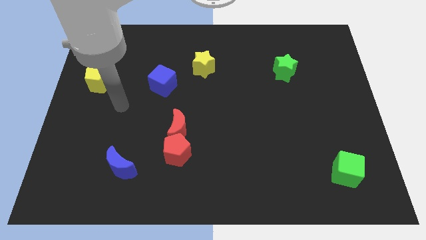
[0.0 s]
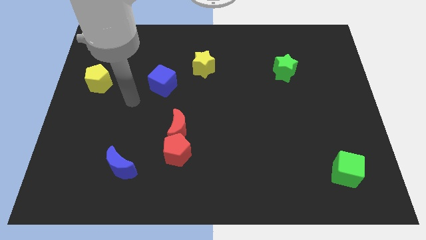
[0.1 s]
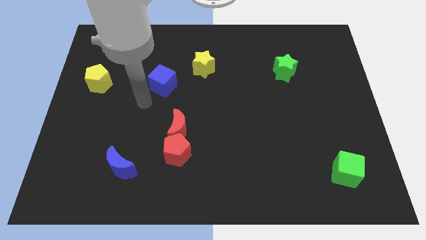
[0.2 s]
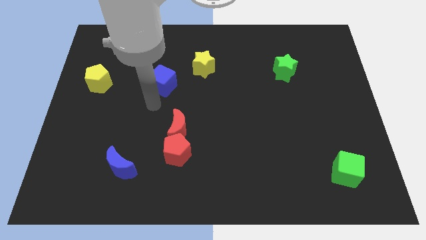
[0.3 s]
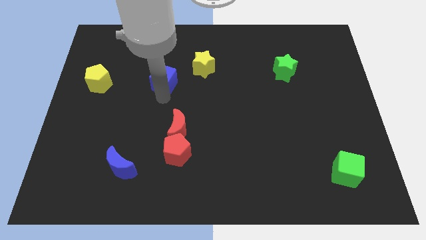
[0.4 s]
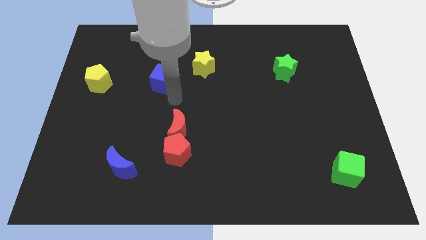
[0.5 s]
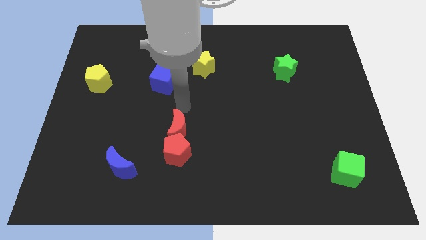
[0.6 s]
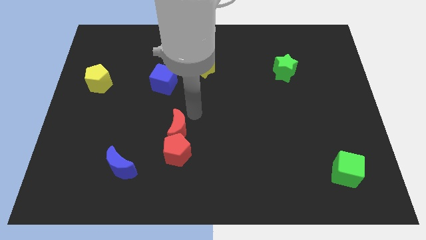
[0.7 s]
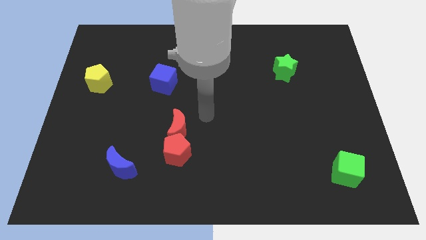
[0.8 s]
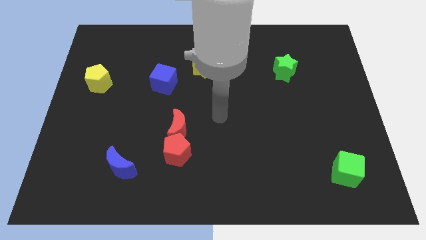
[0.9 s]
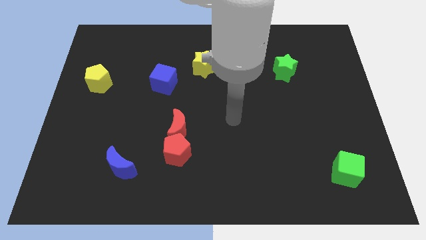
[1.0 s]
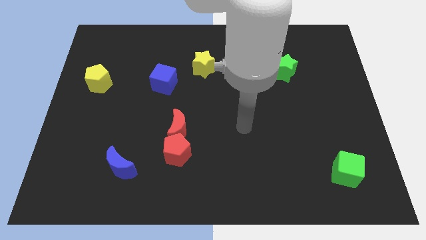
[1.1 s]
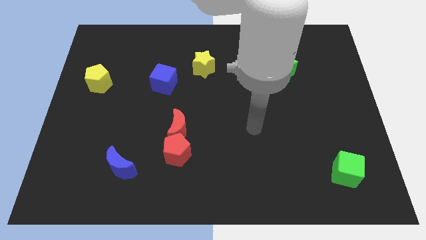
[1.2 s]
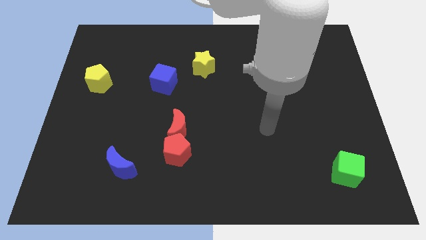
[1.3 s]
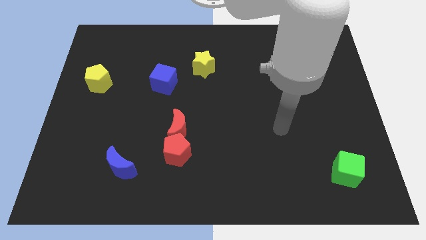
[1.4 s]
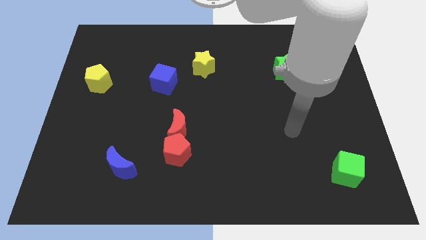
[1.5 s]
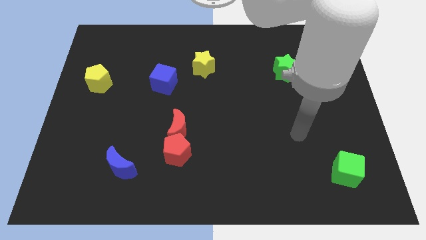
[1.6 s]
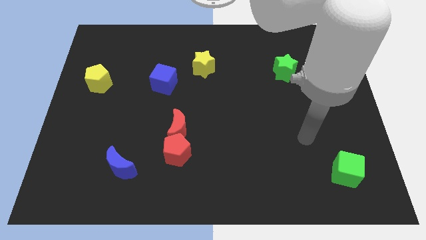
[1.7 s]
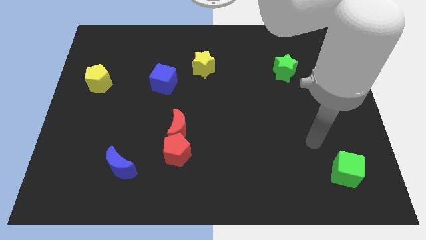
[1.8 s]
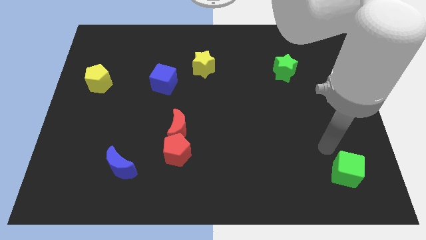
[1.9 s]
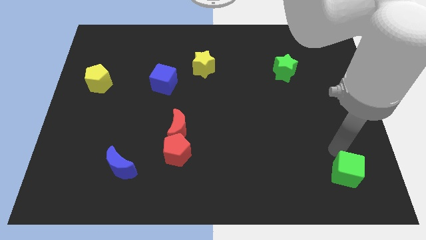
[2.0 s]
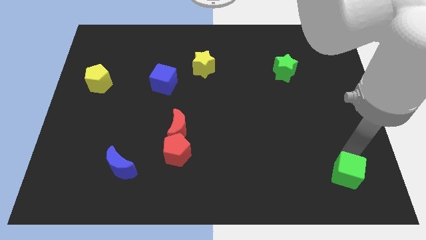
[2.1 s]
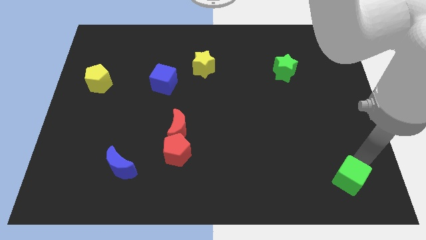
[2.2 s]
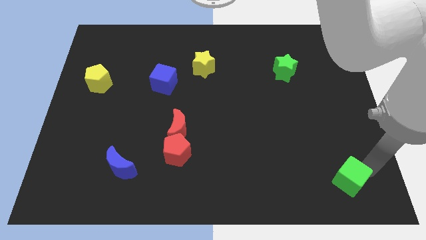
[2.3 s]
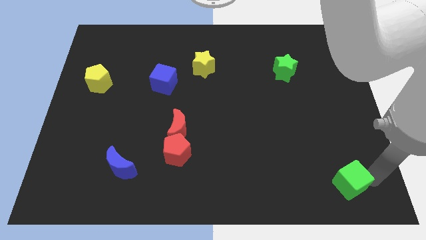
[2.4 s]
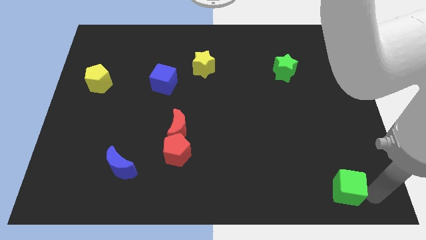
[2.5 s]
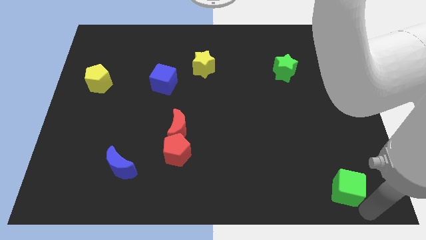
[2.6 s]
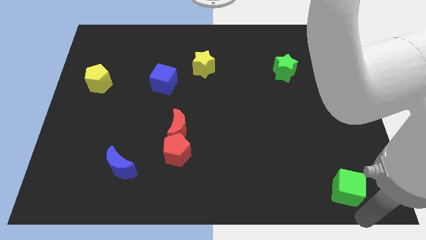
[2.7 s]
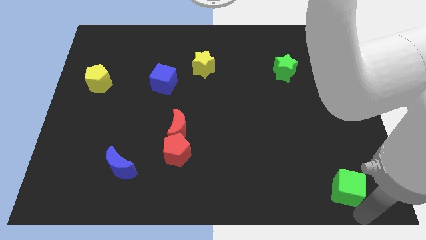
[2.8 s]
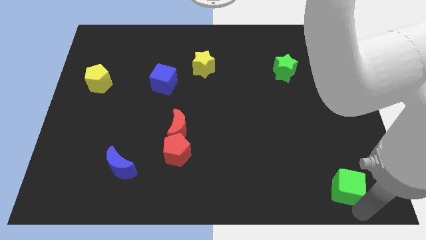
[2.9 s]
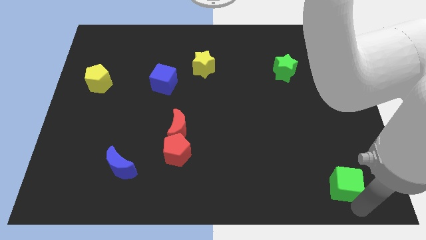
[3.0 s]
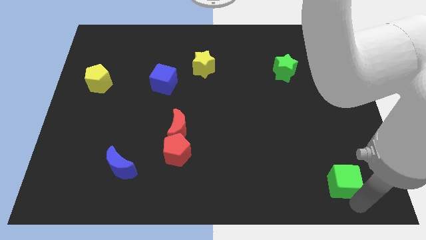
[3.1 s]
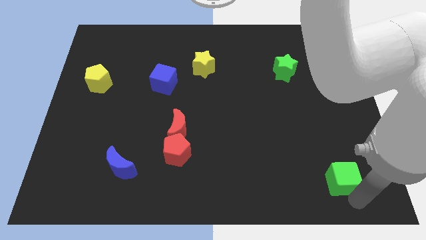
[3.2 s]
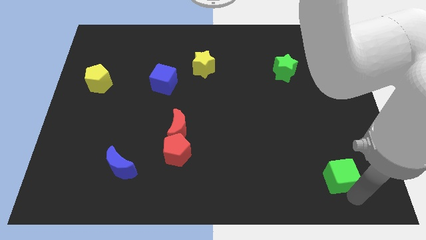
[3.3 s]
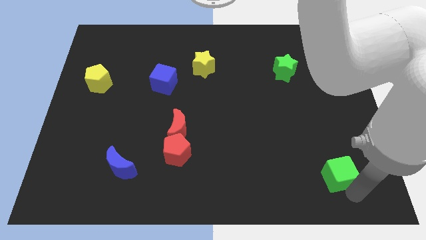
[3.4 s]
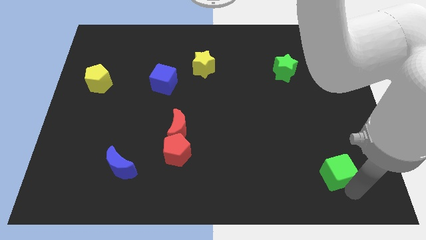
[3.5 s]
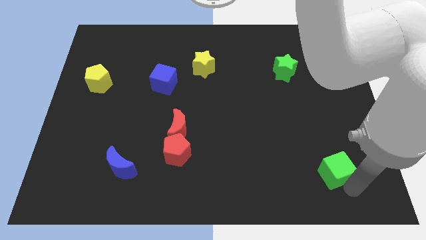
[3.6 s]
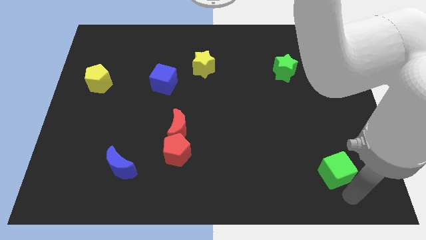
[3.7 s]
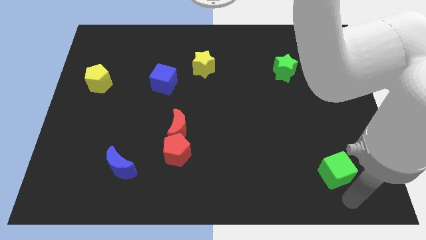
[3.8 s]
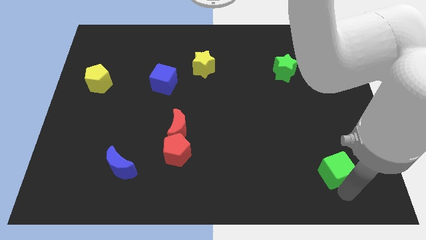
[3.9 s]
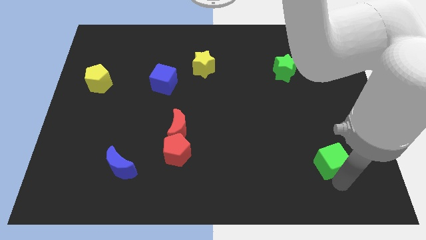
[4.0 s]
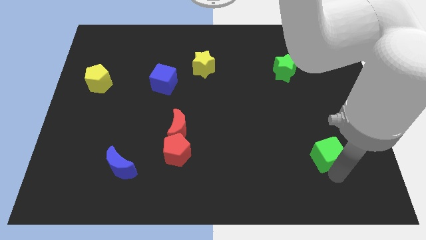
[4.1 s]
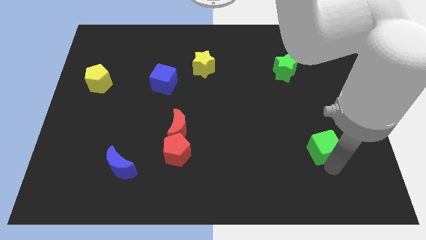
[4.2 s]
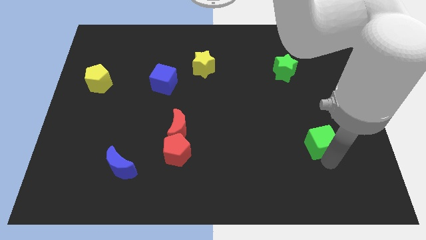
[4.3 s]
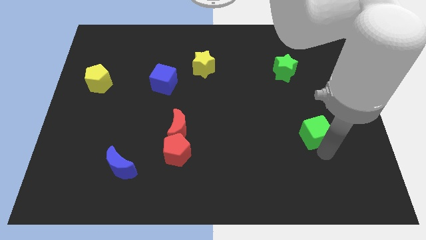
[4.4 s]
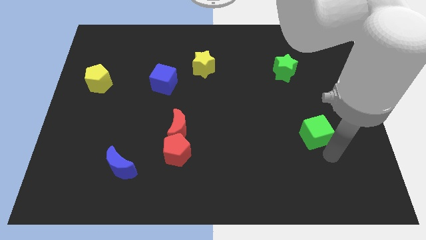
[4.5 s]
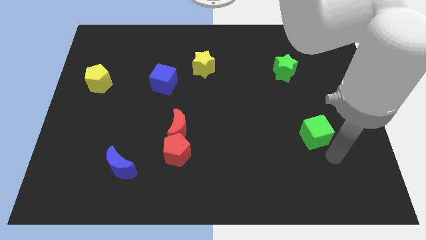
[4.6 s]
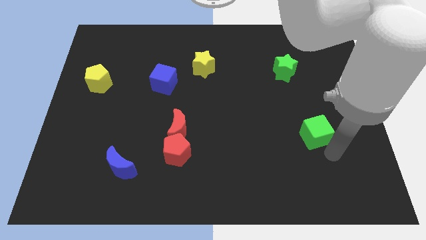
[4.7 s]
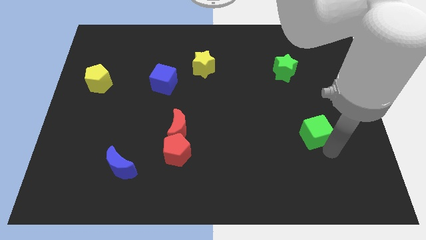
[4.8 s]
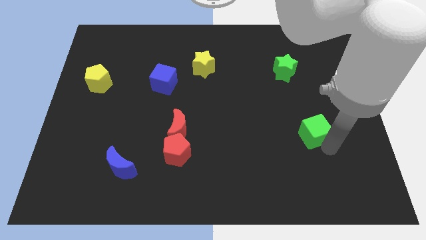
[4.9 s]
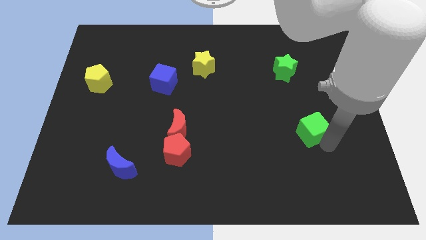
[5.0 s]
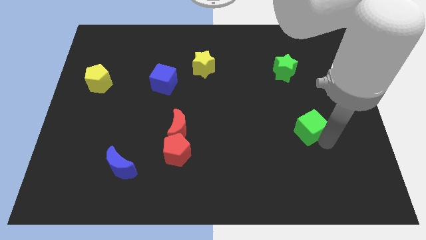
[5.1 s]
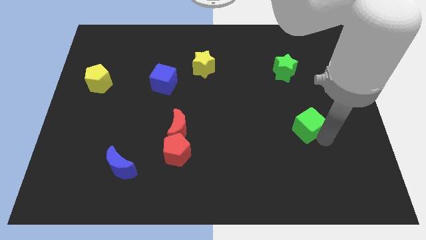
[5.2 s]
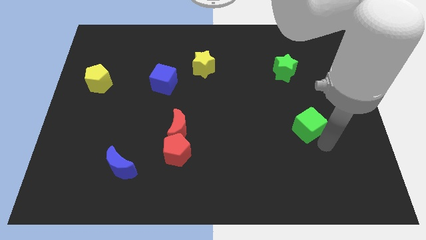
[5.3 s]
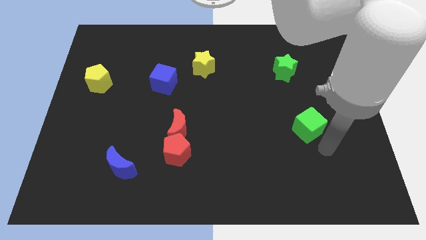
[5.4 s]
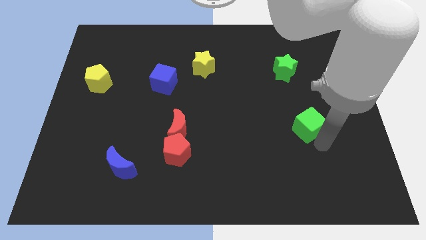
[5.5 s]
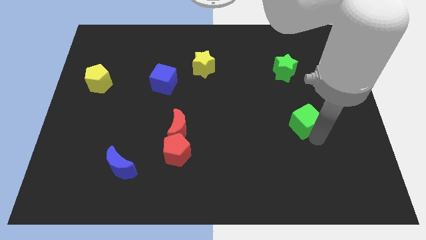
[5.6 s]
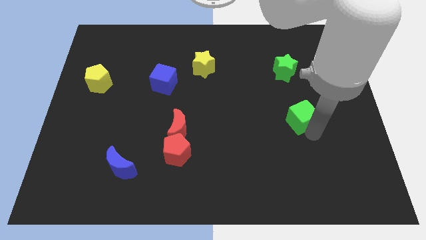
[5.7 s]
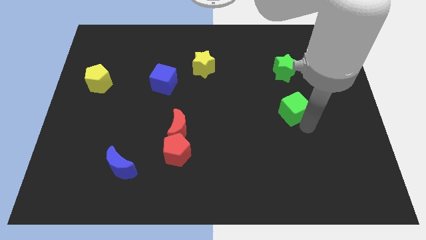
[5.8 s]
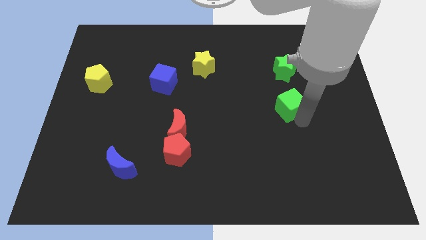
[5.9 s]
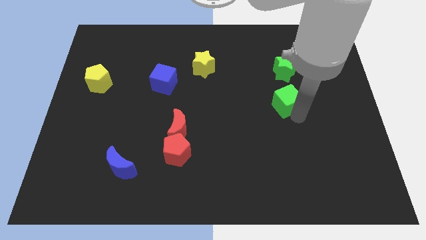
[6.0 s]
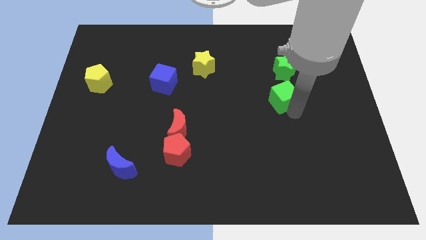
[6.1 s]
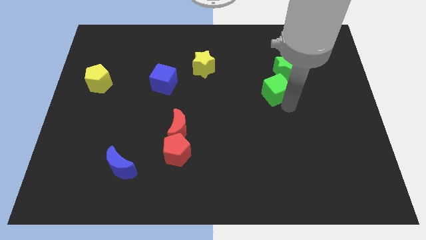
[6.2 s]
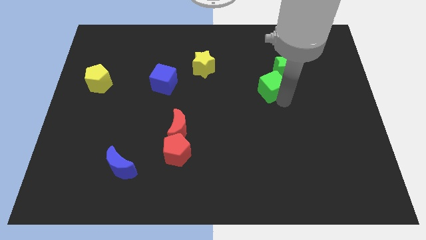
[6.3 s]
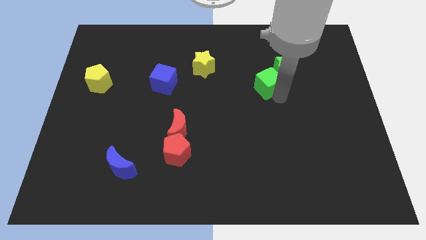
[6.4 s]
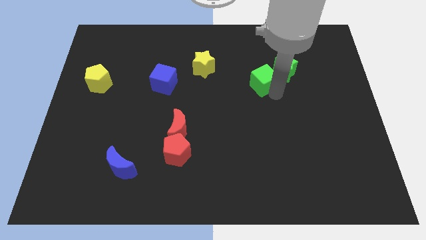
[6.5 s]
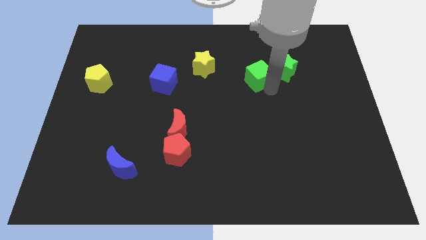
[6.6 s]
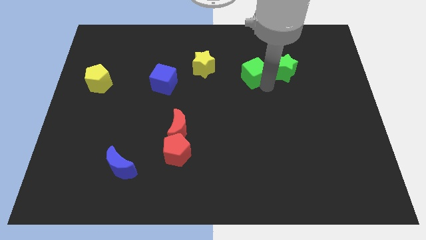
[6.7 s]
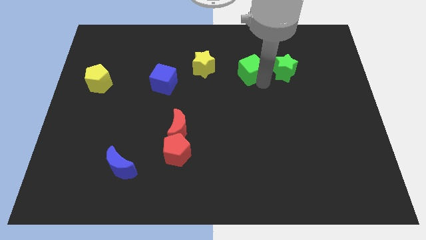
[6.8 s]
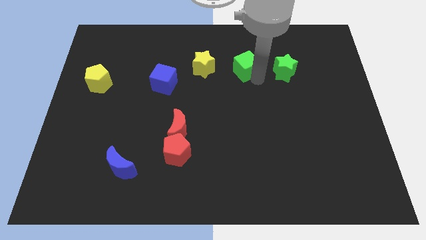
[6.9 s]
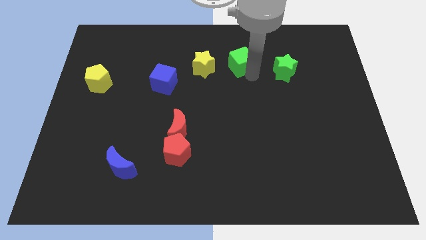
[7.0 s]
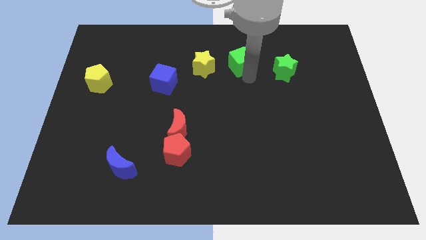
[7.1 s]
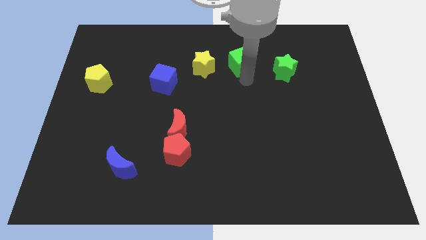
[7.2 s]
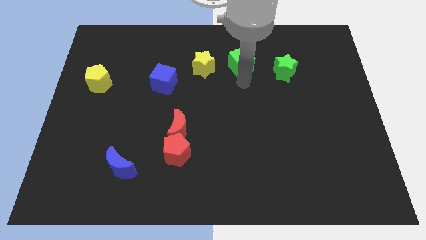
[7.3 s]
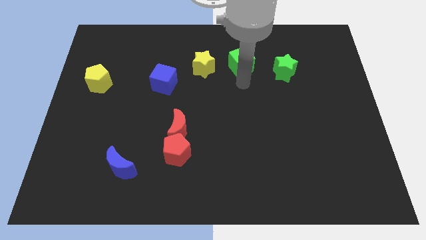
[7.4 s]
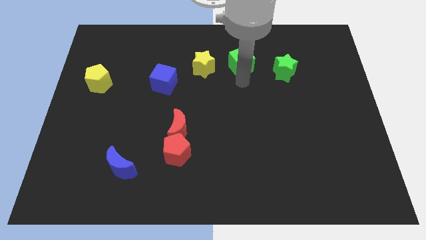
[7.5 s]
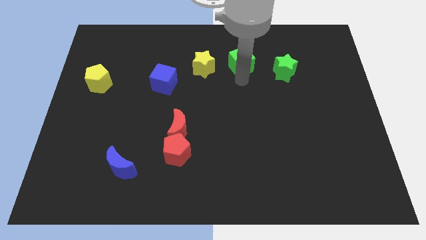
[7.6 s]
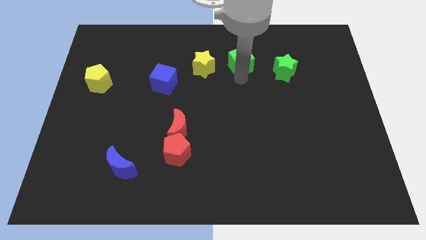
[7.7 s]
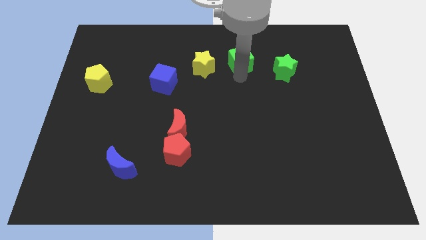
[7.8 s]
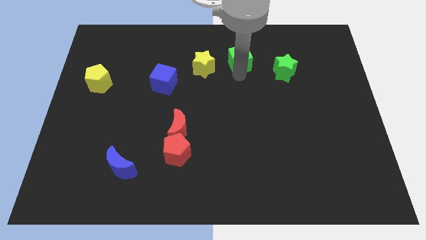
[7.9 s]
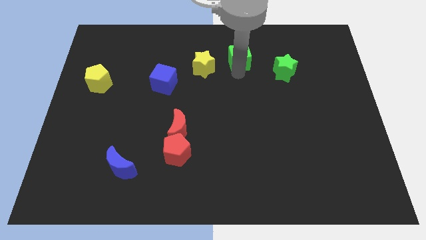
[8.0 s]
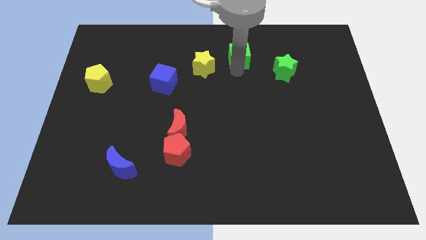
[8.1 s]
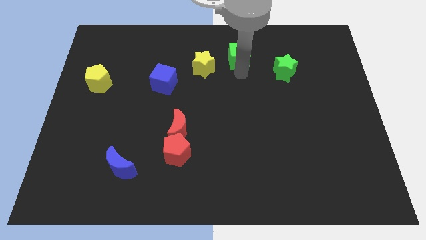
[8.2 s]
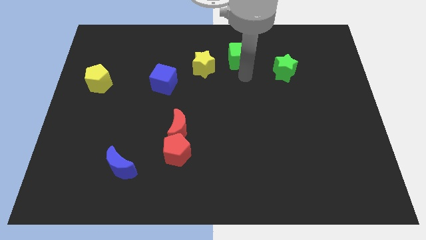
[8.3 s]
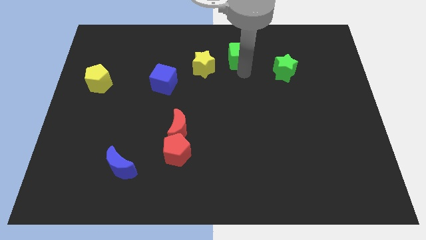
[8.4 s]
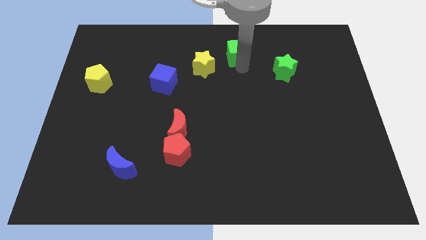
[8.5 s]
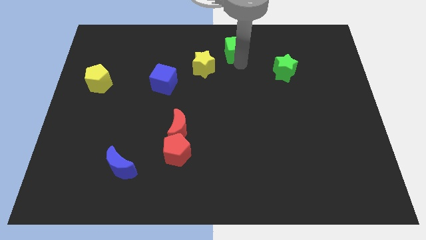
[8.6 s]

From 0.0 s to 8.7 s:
put the green cube to the top side
